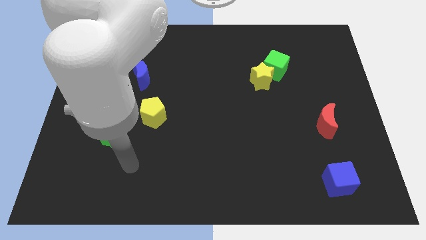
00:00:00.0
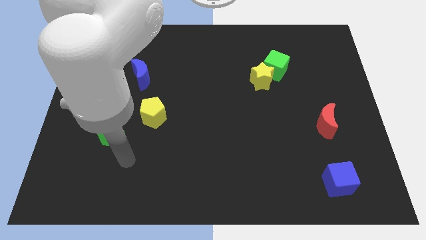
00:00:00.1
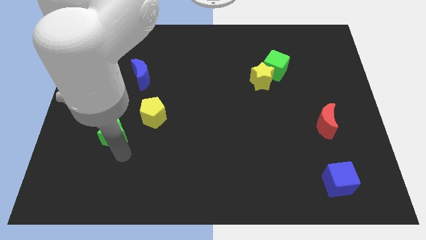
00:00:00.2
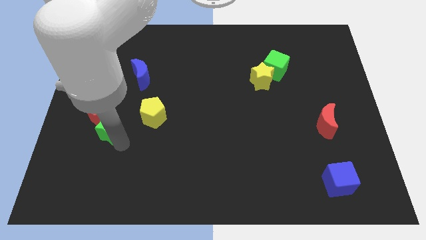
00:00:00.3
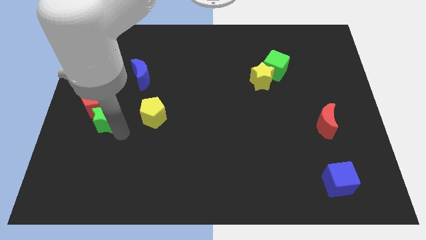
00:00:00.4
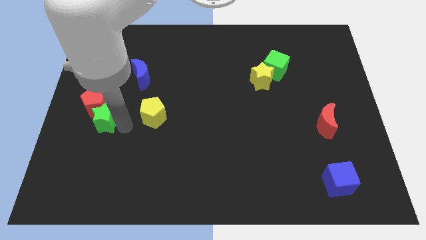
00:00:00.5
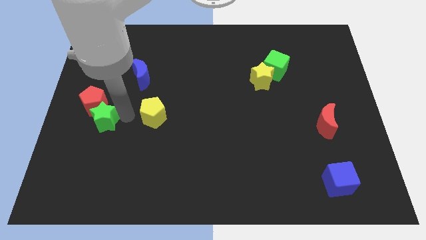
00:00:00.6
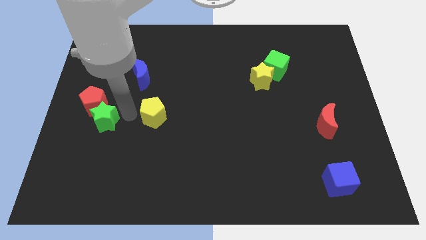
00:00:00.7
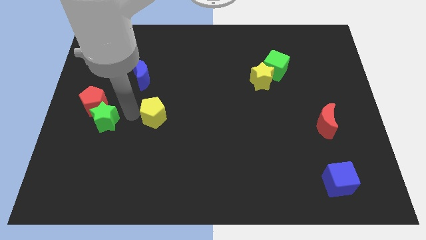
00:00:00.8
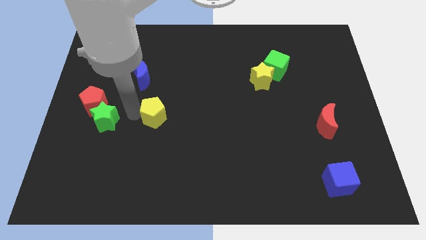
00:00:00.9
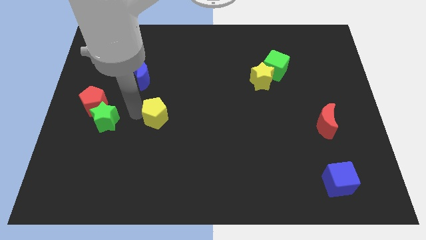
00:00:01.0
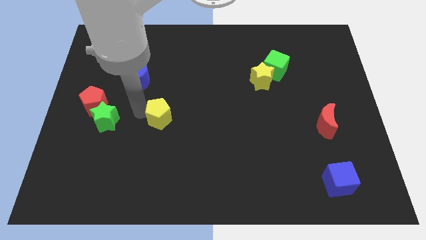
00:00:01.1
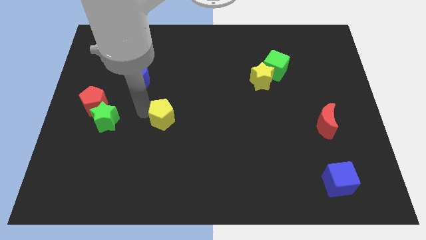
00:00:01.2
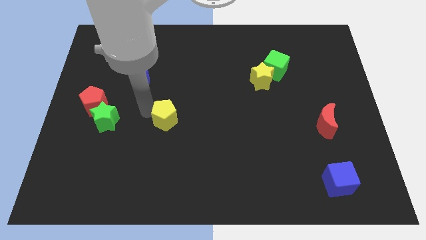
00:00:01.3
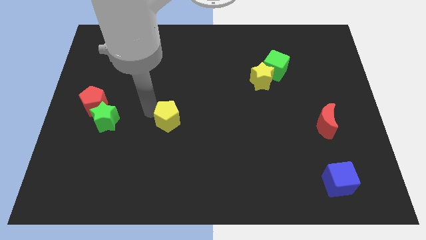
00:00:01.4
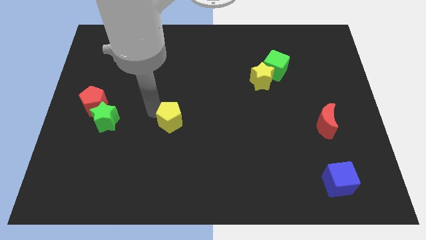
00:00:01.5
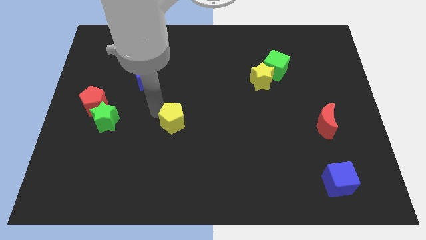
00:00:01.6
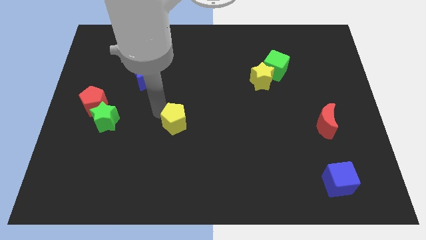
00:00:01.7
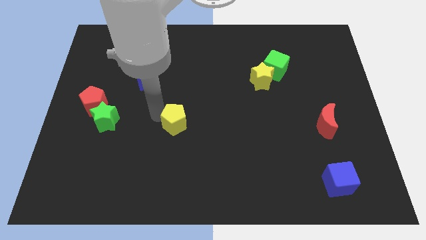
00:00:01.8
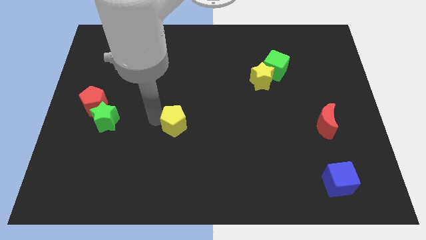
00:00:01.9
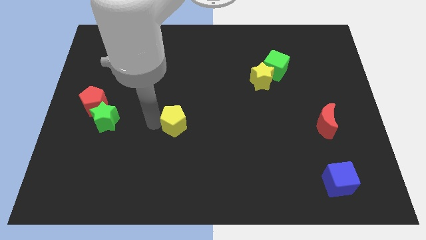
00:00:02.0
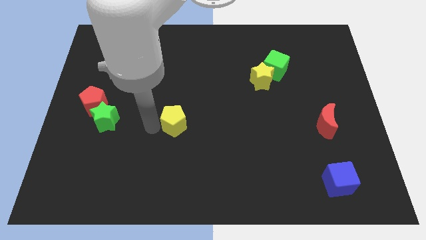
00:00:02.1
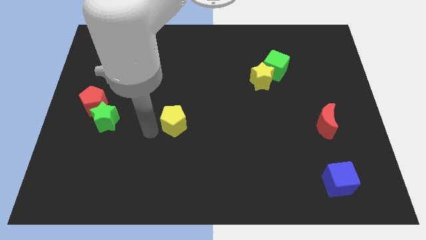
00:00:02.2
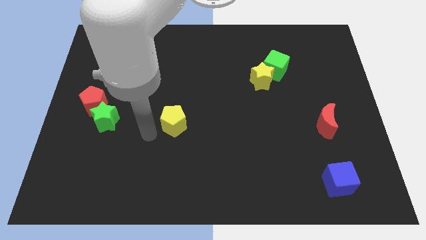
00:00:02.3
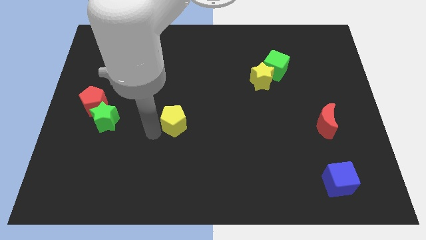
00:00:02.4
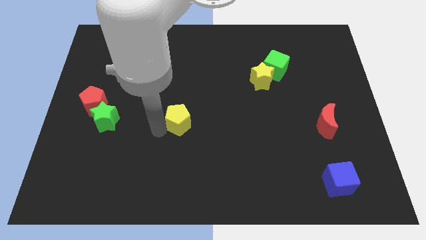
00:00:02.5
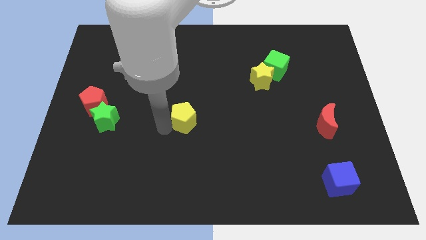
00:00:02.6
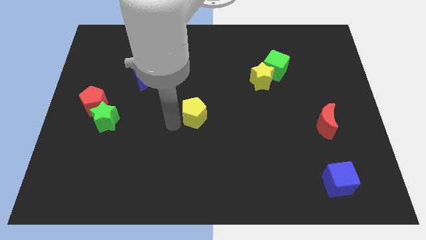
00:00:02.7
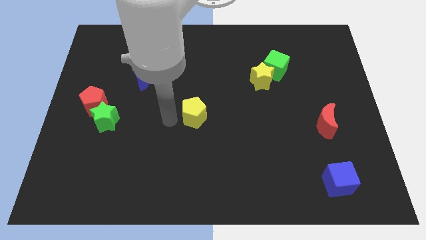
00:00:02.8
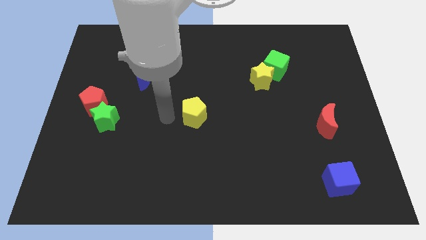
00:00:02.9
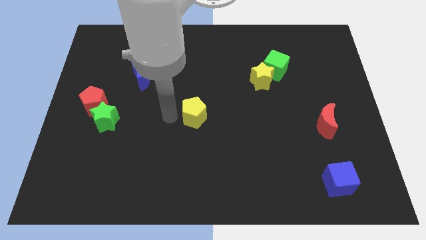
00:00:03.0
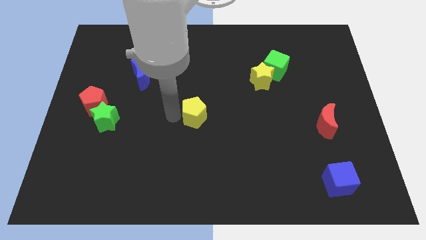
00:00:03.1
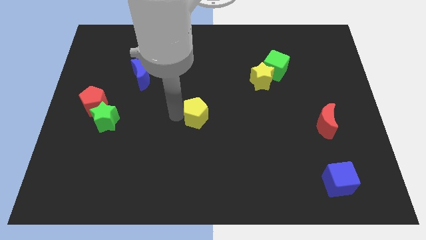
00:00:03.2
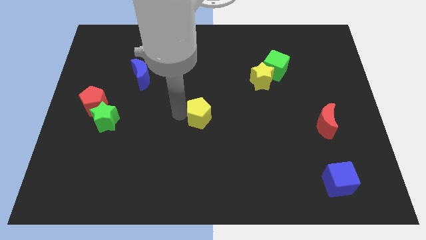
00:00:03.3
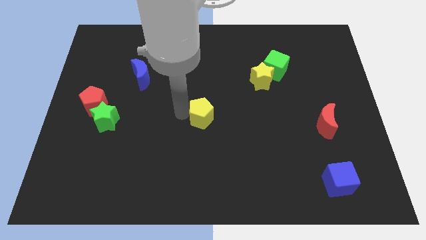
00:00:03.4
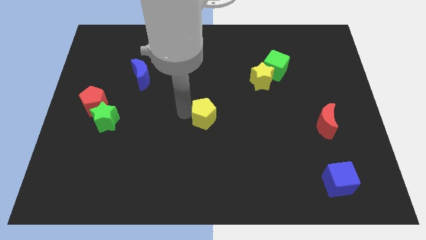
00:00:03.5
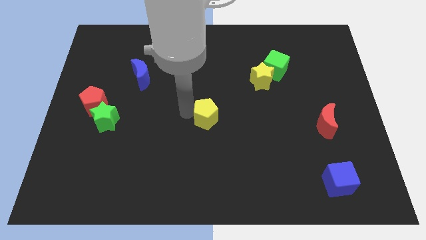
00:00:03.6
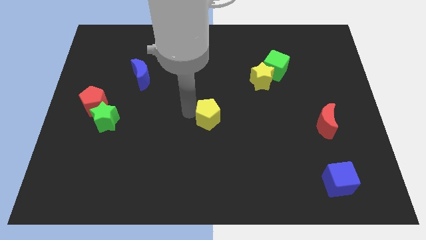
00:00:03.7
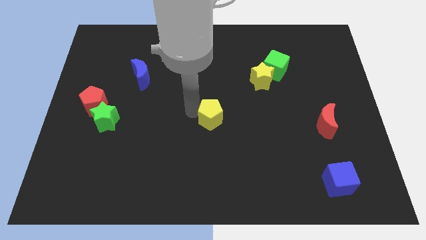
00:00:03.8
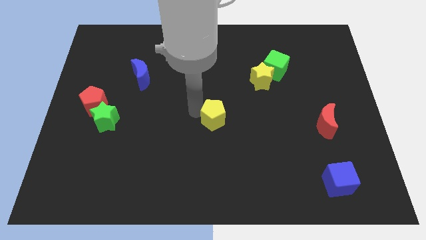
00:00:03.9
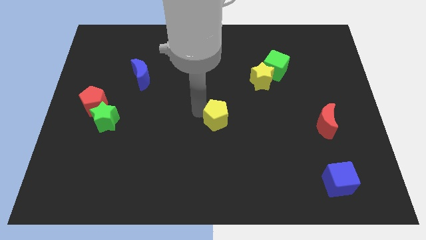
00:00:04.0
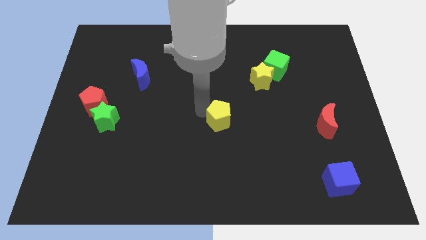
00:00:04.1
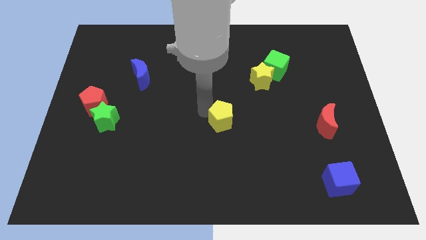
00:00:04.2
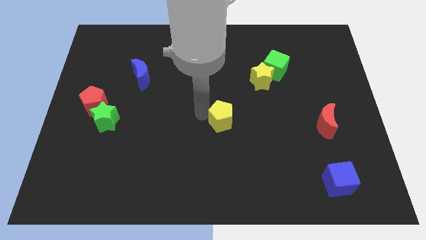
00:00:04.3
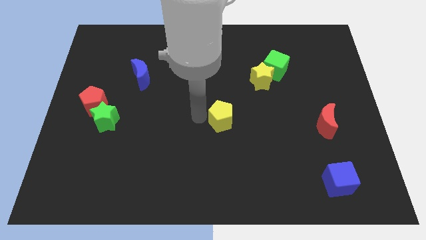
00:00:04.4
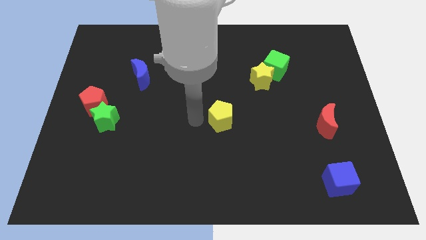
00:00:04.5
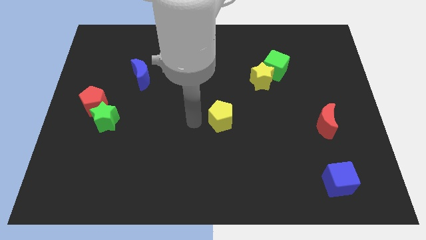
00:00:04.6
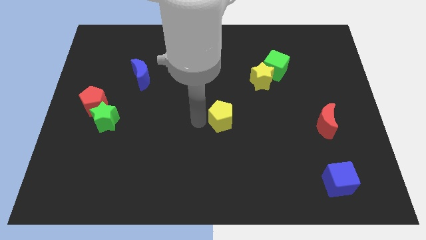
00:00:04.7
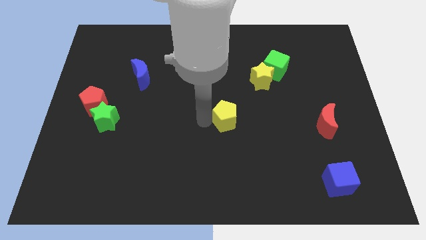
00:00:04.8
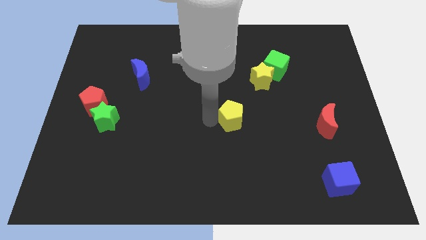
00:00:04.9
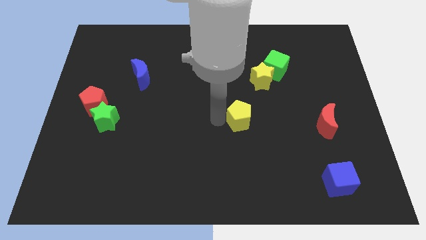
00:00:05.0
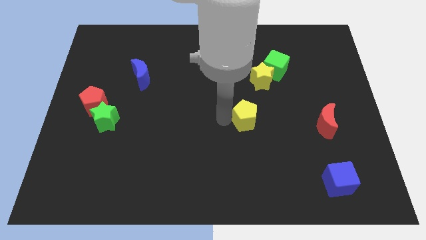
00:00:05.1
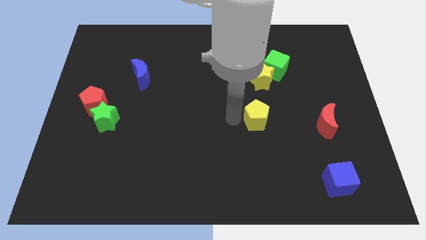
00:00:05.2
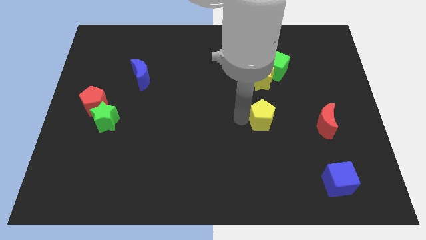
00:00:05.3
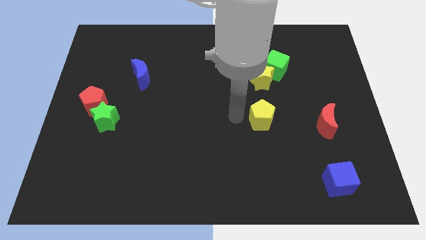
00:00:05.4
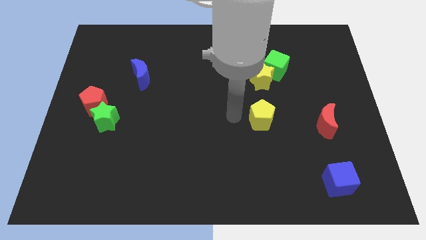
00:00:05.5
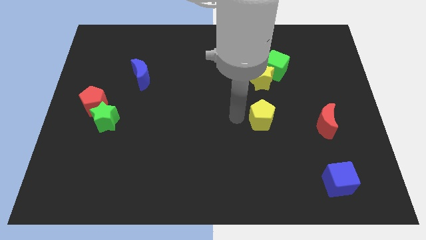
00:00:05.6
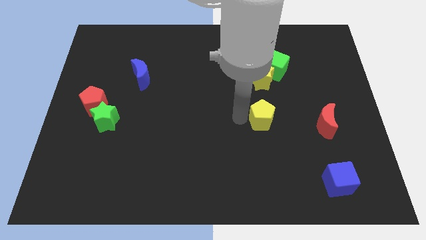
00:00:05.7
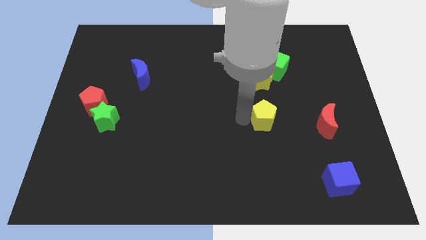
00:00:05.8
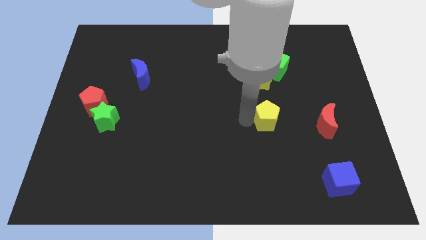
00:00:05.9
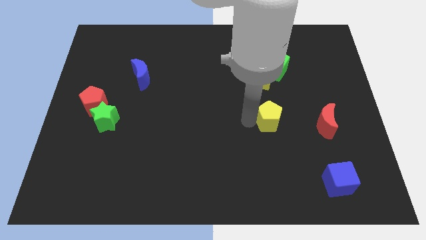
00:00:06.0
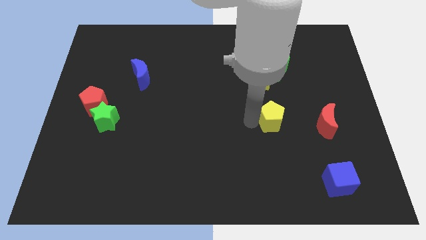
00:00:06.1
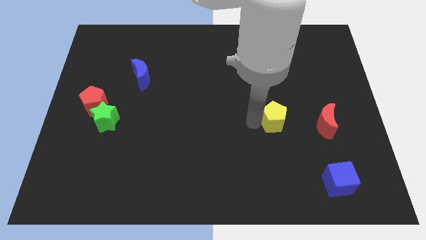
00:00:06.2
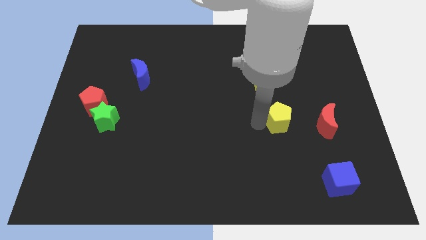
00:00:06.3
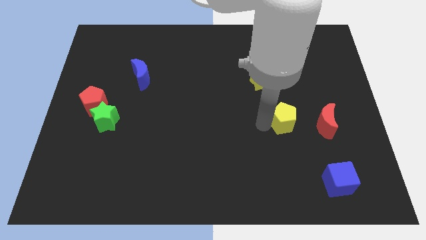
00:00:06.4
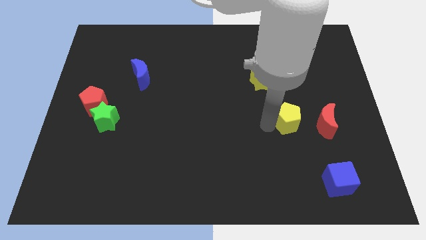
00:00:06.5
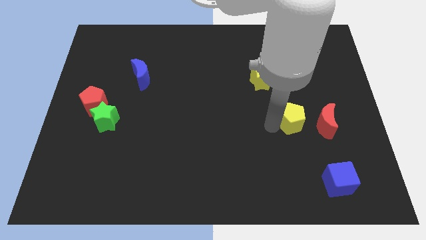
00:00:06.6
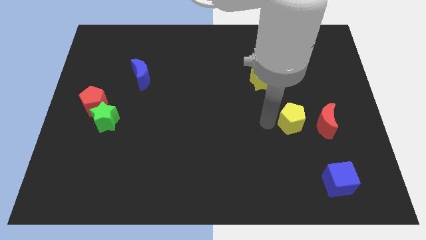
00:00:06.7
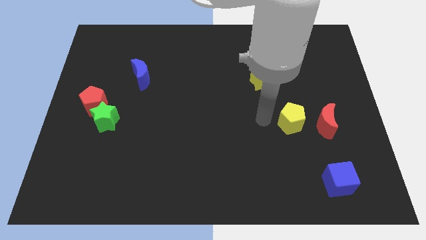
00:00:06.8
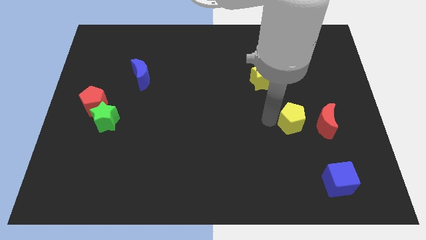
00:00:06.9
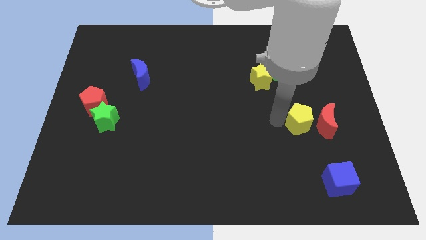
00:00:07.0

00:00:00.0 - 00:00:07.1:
push the yellow pentagon towards the red moon

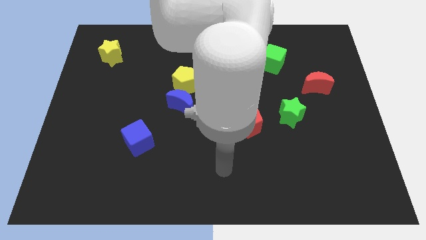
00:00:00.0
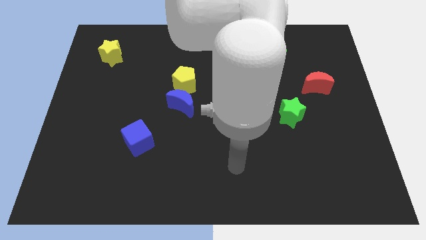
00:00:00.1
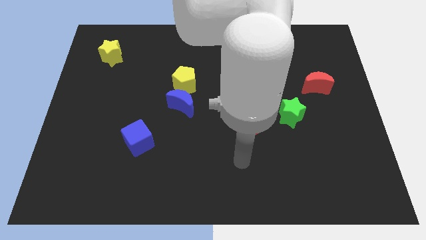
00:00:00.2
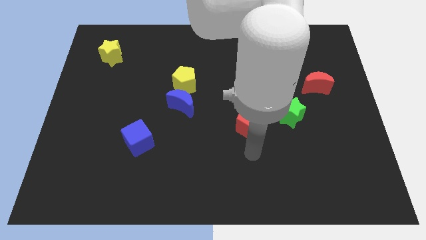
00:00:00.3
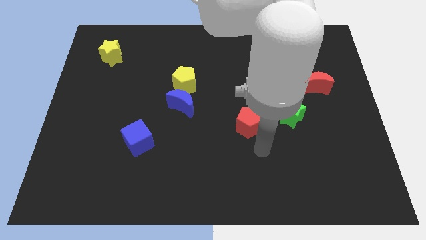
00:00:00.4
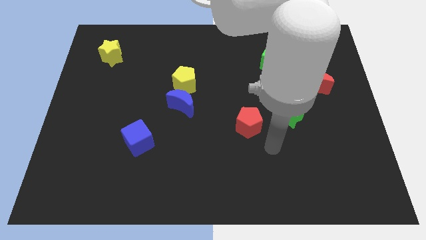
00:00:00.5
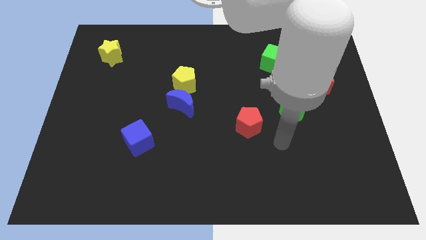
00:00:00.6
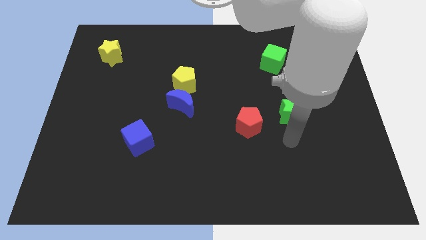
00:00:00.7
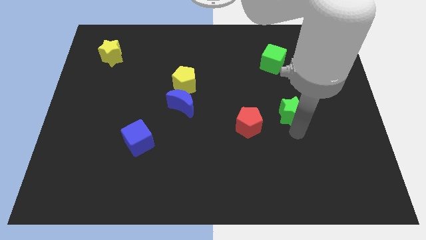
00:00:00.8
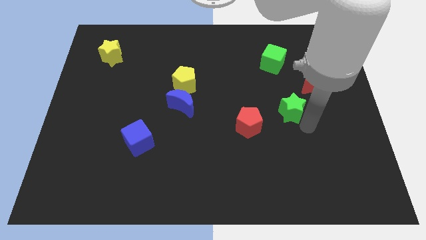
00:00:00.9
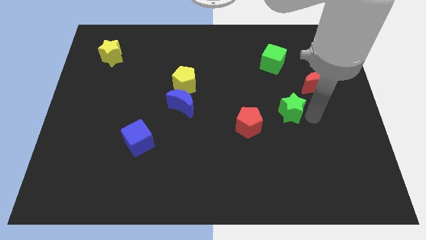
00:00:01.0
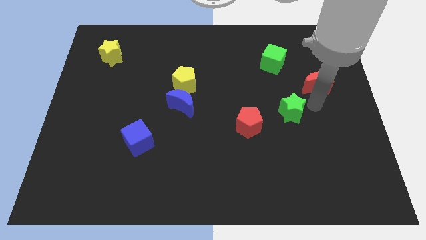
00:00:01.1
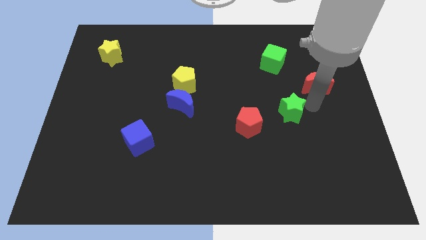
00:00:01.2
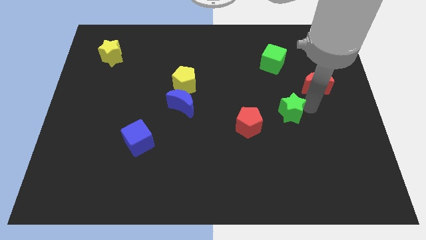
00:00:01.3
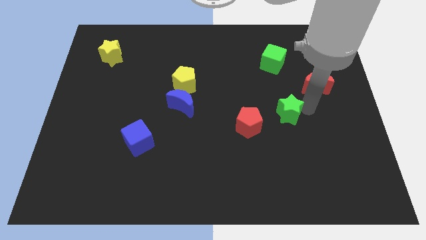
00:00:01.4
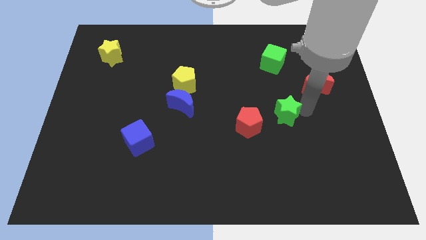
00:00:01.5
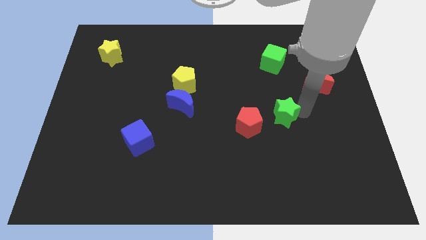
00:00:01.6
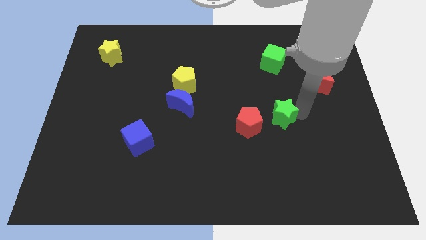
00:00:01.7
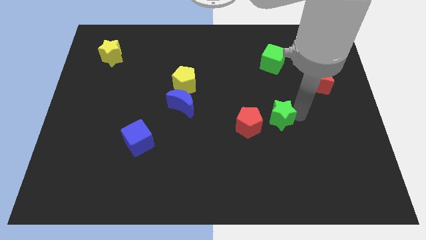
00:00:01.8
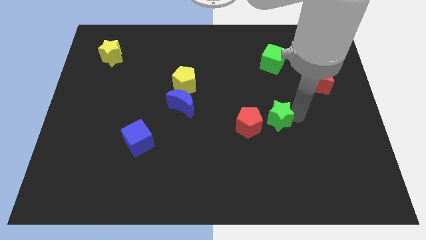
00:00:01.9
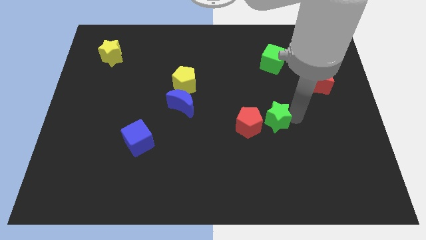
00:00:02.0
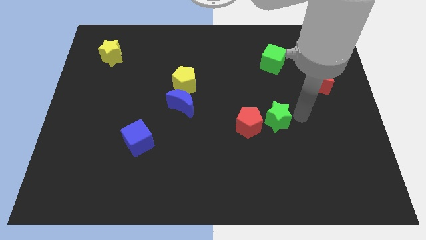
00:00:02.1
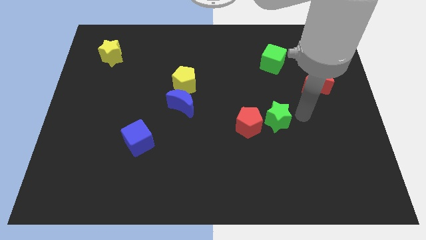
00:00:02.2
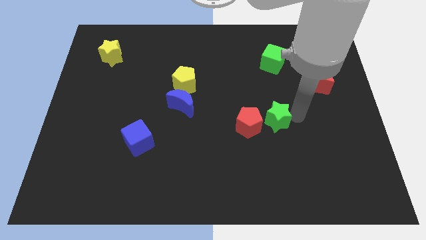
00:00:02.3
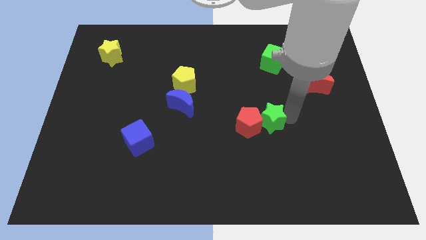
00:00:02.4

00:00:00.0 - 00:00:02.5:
slide the green star close to the red pentagon
